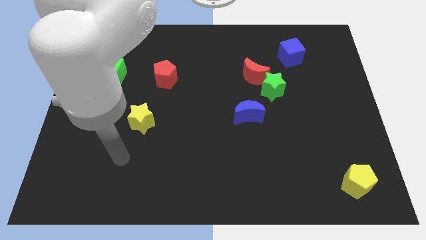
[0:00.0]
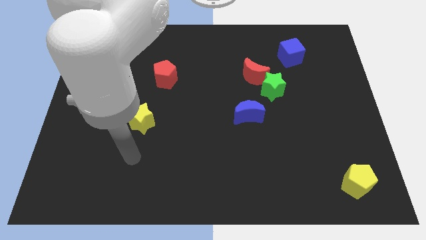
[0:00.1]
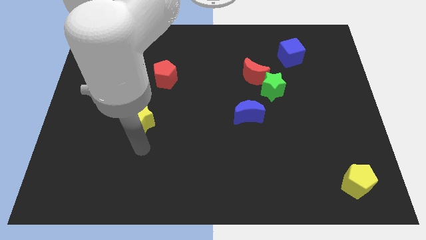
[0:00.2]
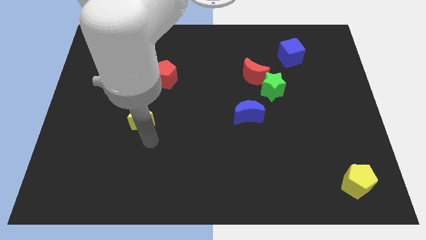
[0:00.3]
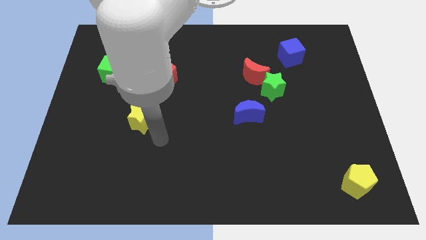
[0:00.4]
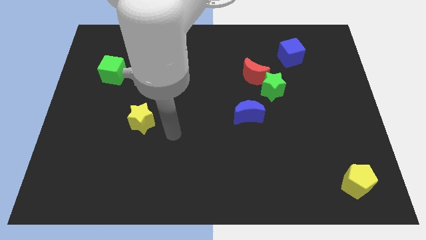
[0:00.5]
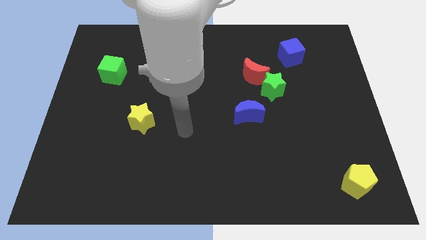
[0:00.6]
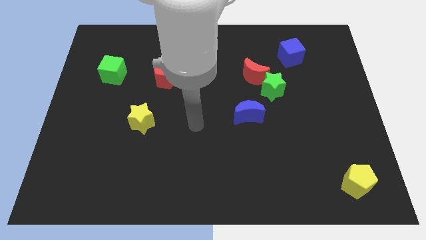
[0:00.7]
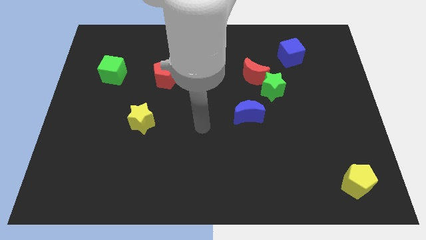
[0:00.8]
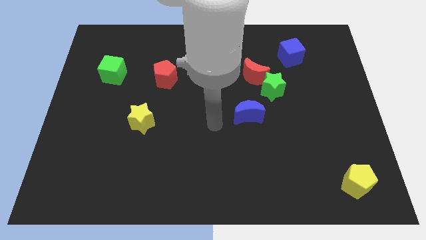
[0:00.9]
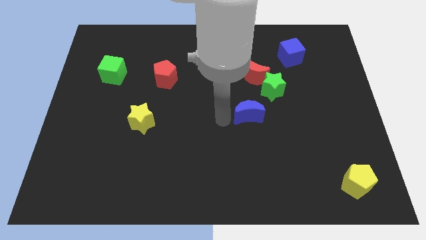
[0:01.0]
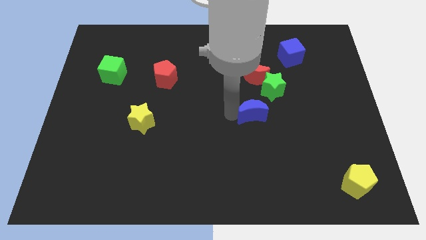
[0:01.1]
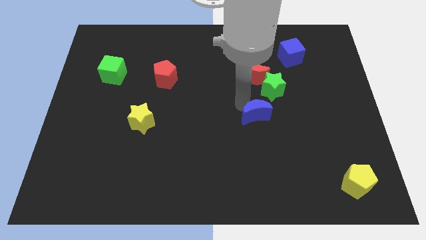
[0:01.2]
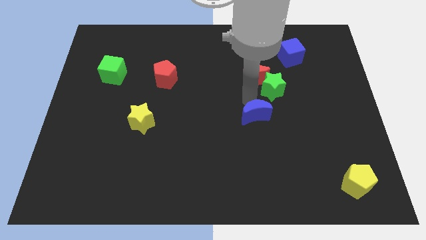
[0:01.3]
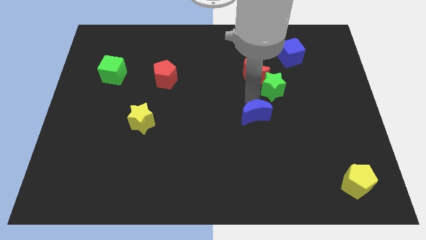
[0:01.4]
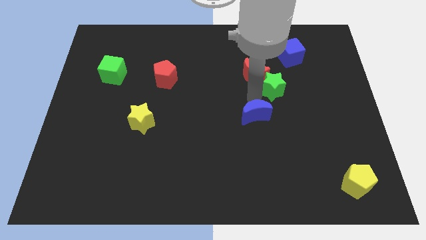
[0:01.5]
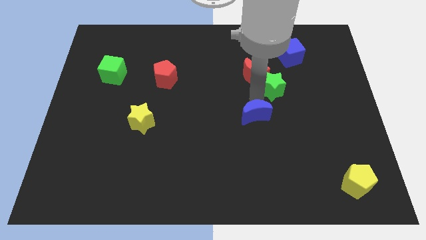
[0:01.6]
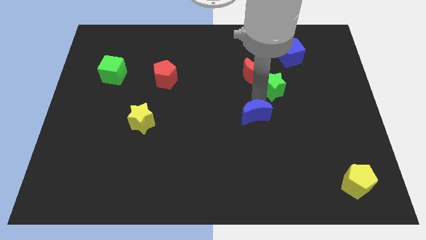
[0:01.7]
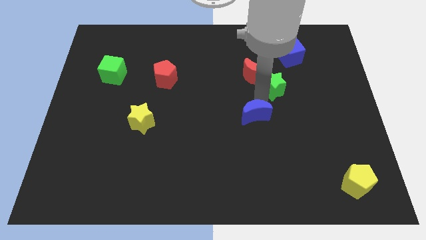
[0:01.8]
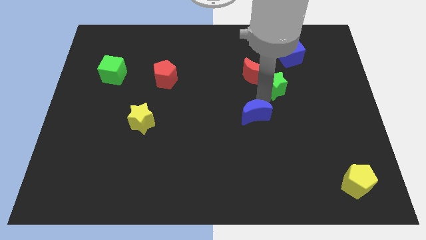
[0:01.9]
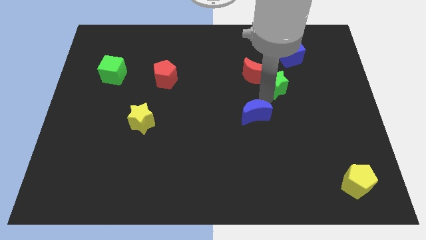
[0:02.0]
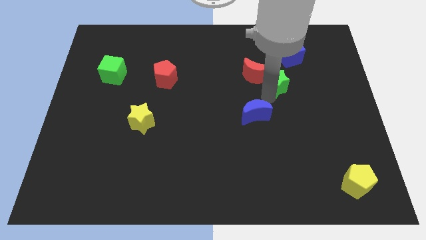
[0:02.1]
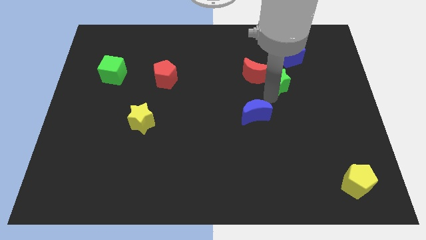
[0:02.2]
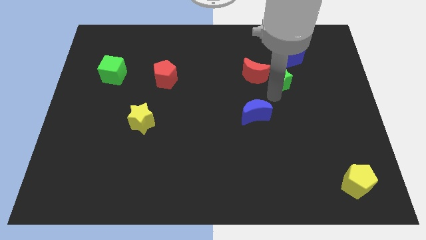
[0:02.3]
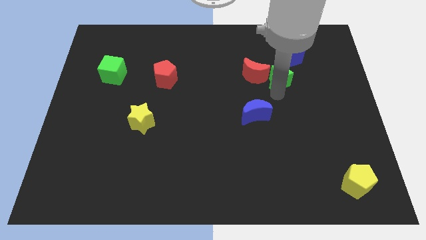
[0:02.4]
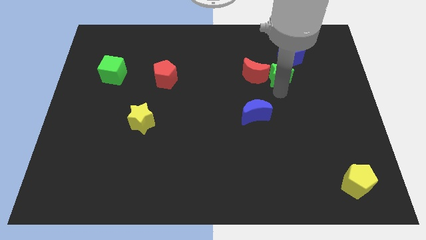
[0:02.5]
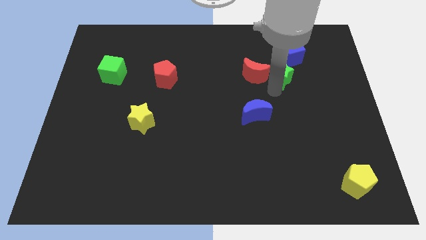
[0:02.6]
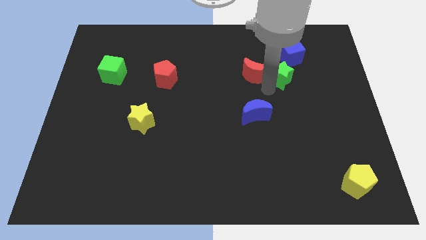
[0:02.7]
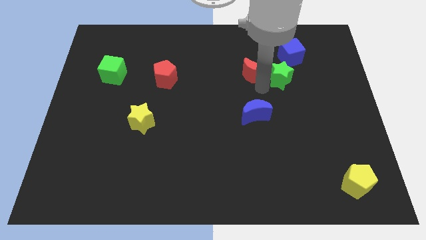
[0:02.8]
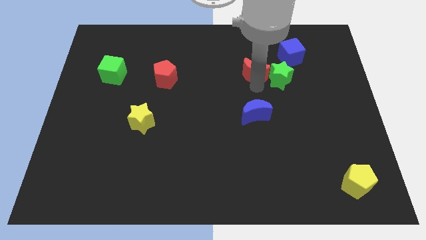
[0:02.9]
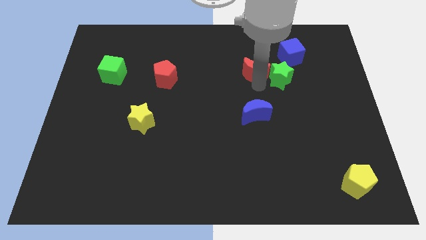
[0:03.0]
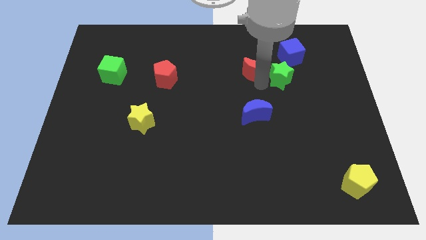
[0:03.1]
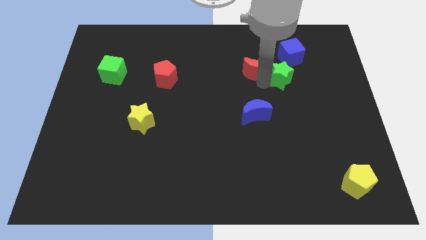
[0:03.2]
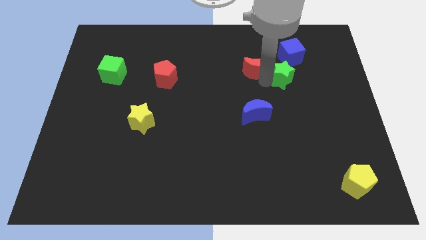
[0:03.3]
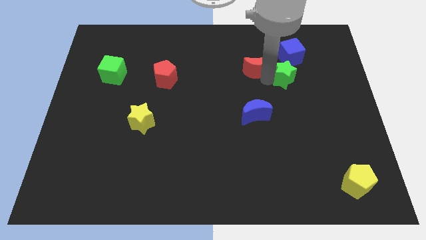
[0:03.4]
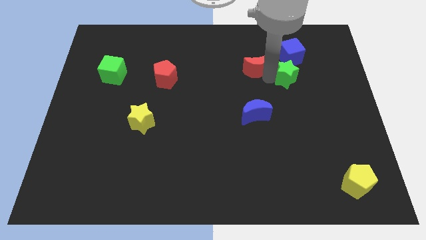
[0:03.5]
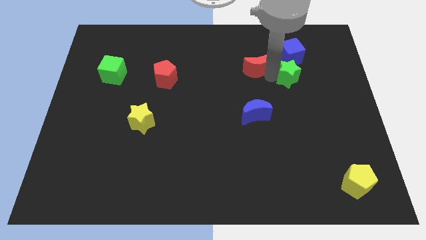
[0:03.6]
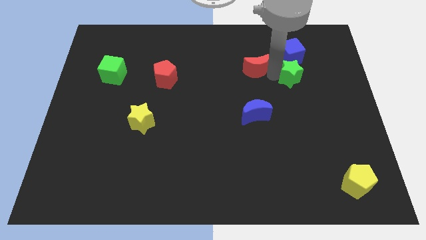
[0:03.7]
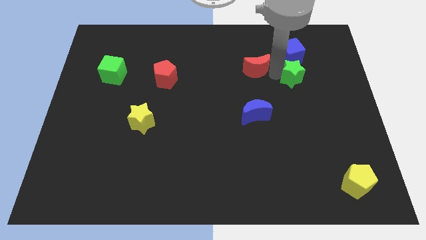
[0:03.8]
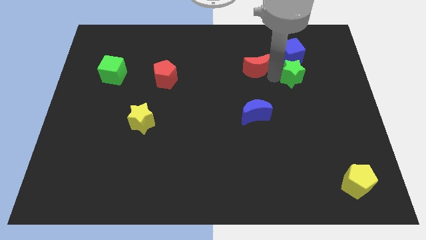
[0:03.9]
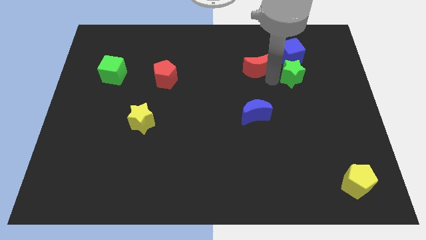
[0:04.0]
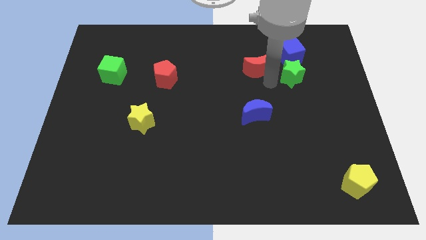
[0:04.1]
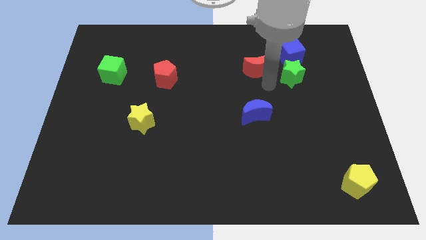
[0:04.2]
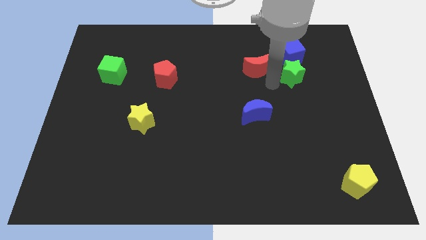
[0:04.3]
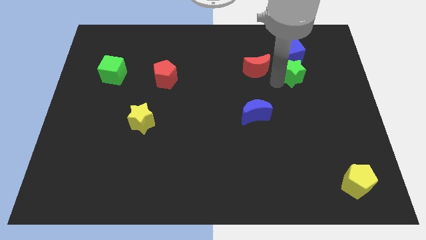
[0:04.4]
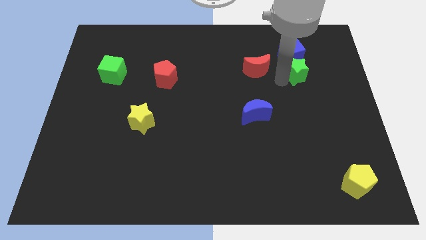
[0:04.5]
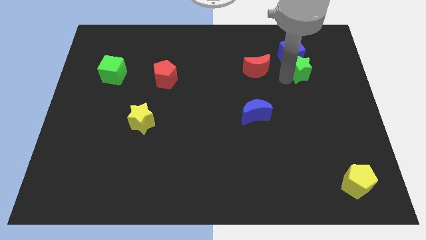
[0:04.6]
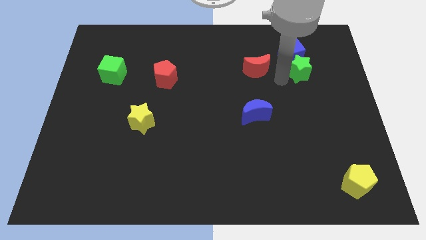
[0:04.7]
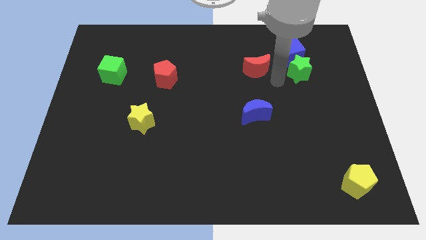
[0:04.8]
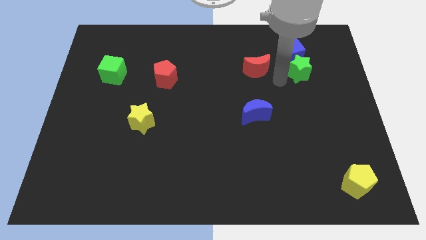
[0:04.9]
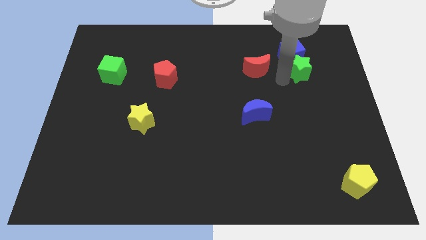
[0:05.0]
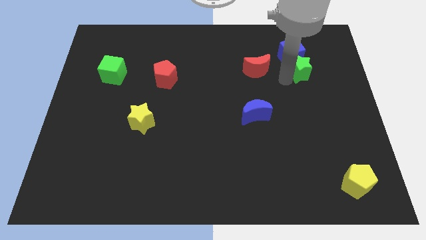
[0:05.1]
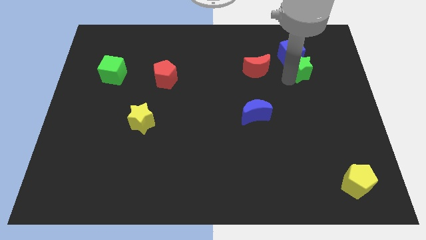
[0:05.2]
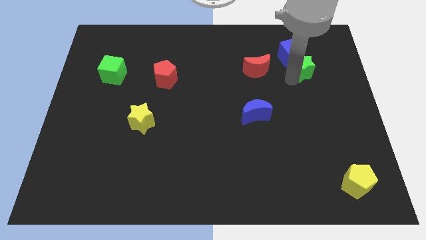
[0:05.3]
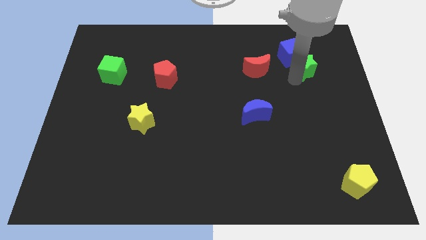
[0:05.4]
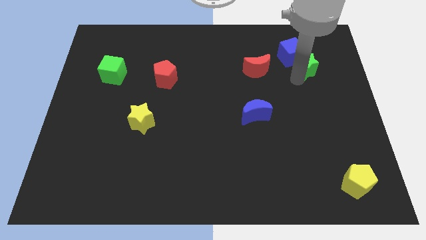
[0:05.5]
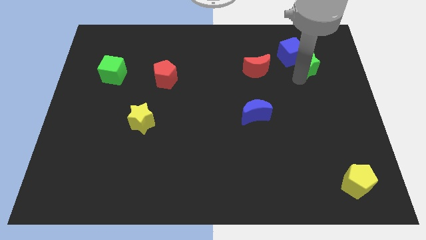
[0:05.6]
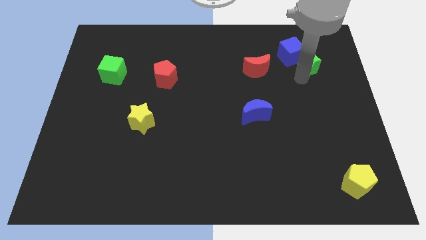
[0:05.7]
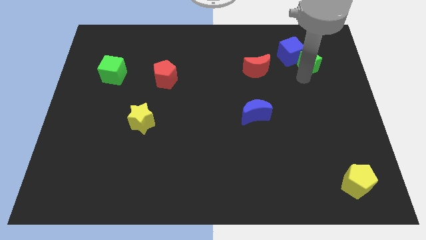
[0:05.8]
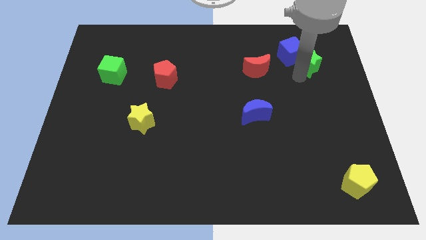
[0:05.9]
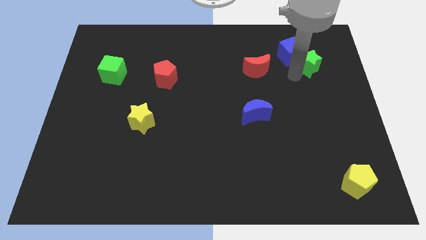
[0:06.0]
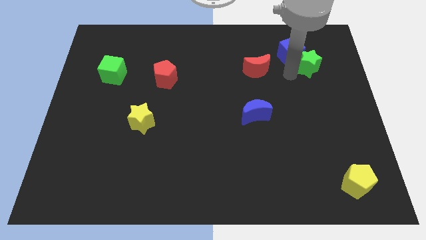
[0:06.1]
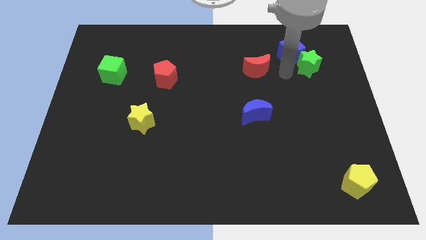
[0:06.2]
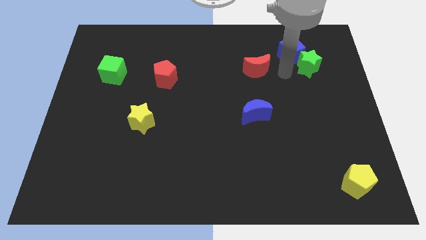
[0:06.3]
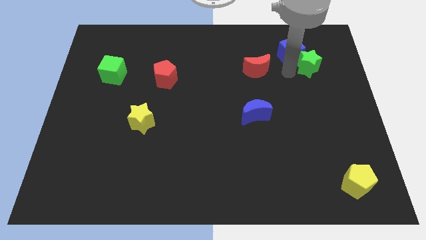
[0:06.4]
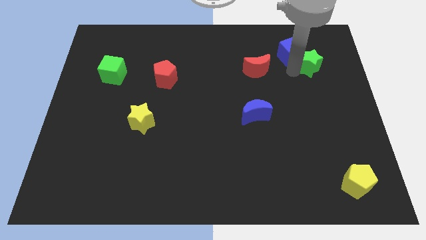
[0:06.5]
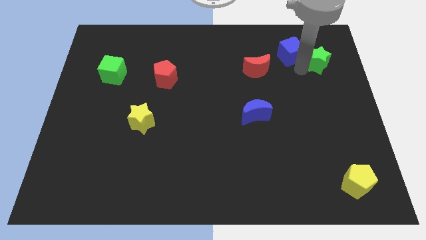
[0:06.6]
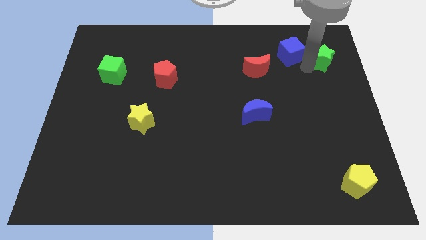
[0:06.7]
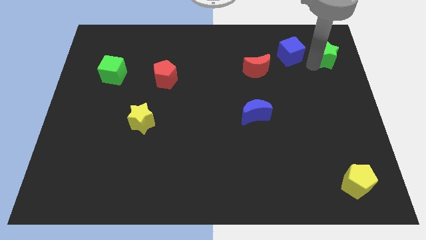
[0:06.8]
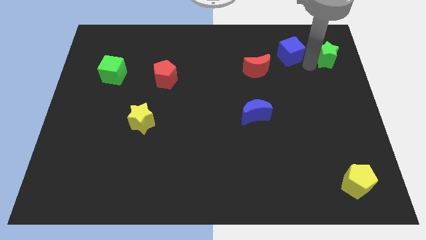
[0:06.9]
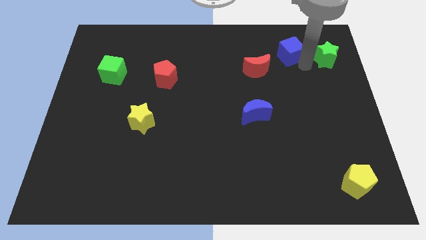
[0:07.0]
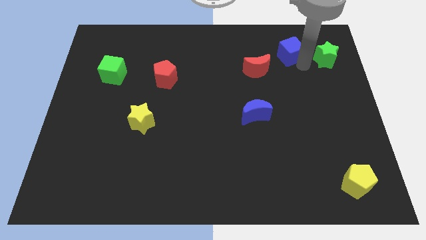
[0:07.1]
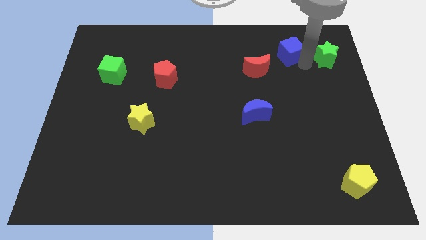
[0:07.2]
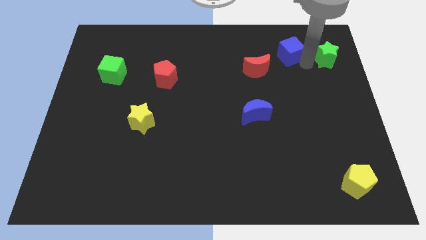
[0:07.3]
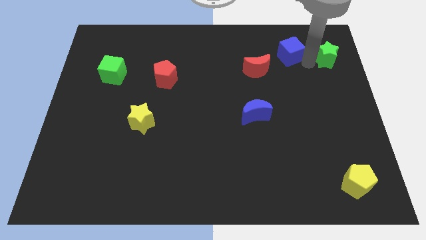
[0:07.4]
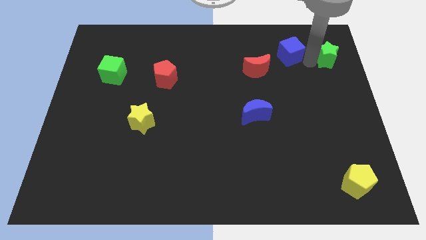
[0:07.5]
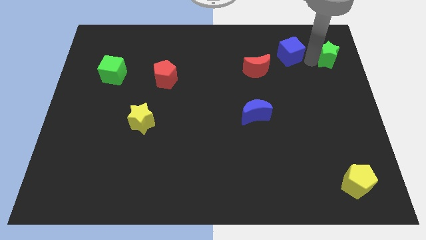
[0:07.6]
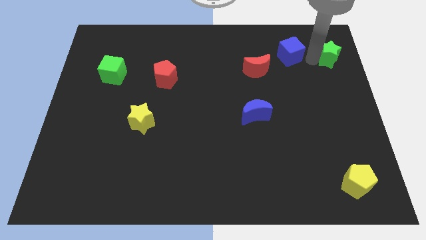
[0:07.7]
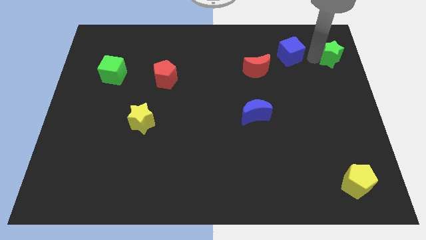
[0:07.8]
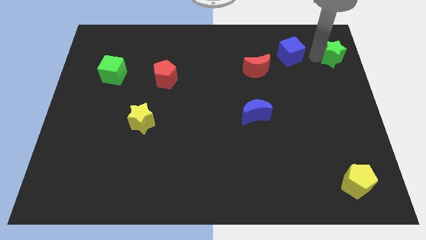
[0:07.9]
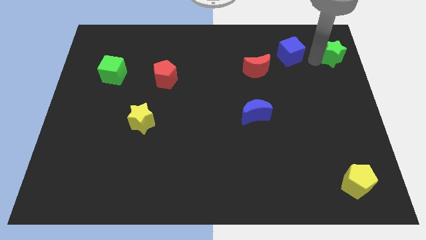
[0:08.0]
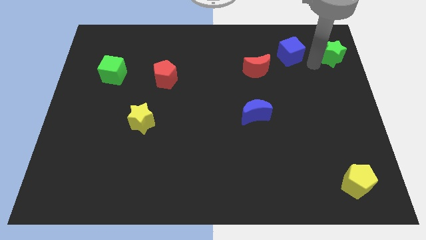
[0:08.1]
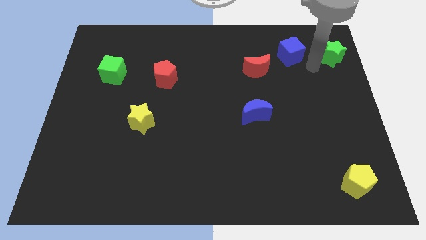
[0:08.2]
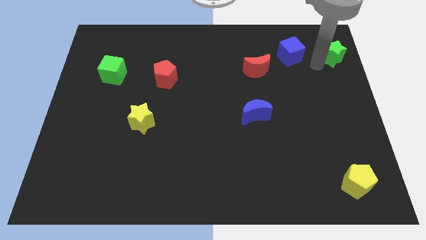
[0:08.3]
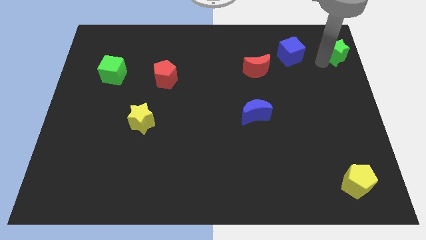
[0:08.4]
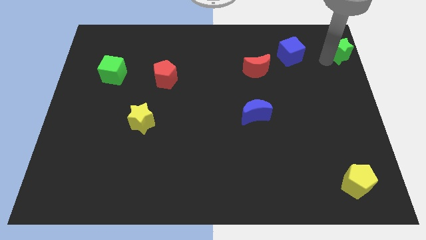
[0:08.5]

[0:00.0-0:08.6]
put the green star to the top right of the board
